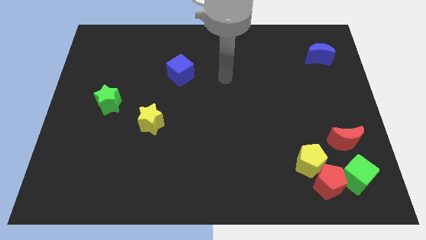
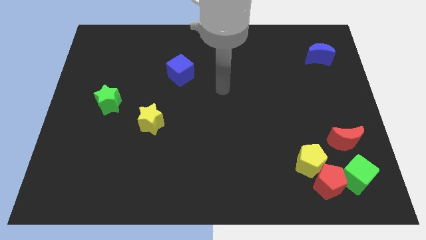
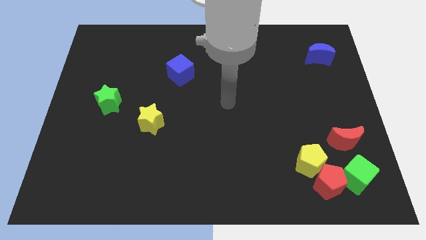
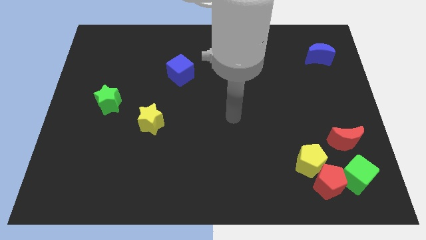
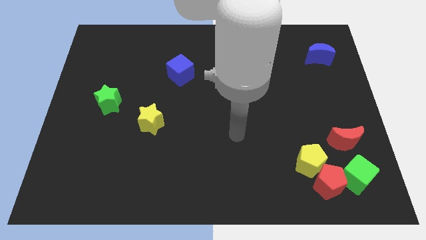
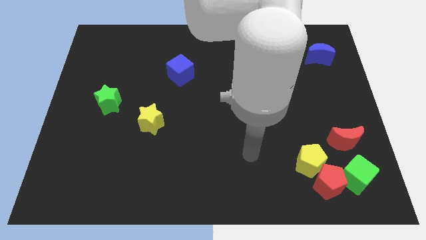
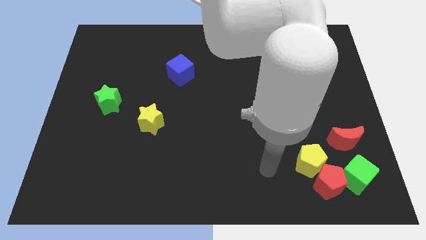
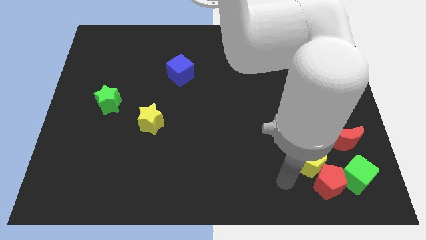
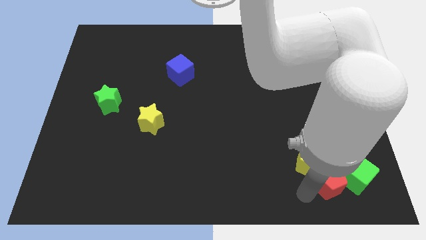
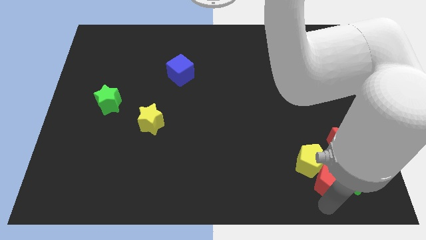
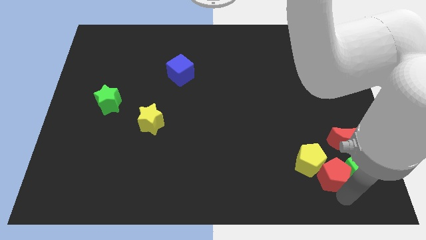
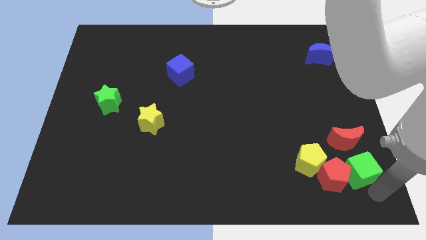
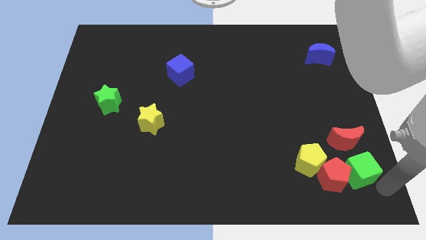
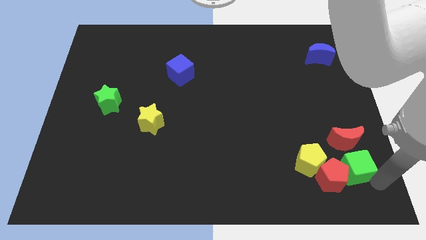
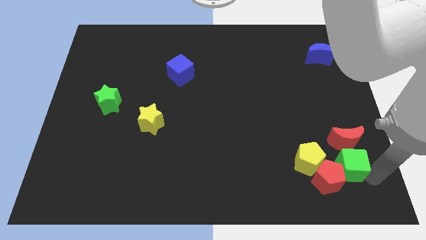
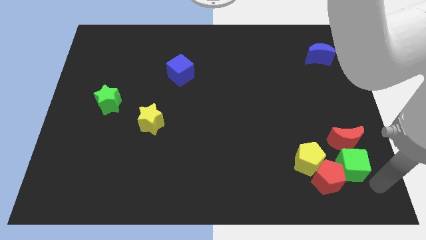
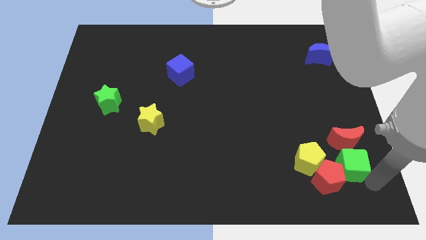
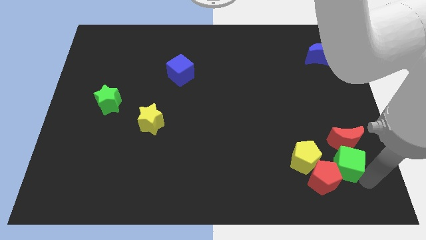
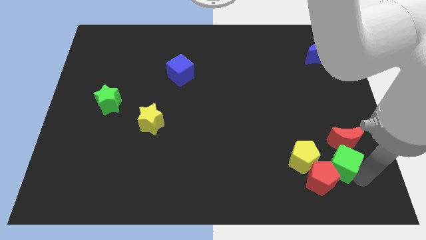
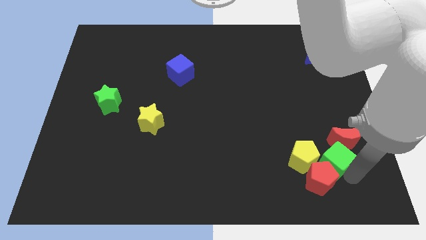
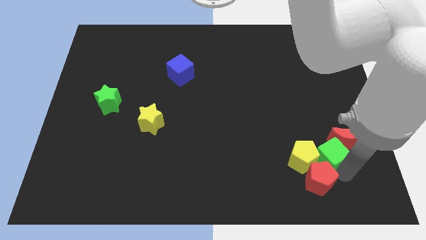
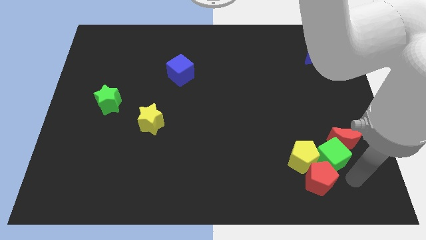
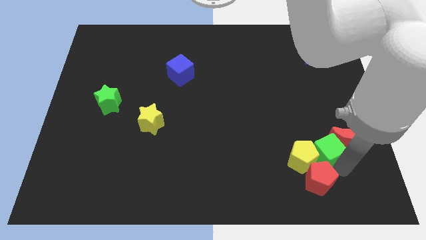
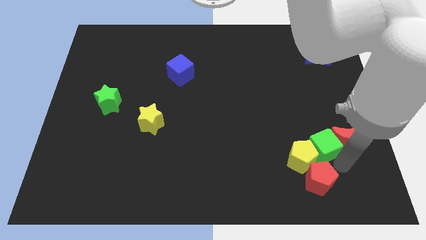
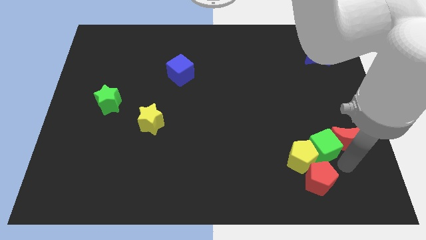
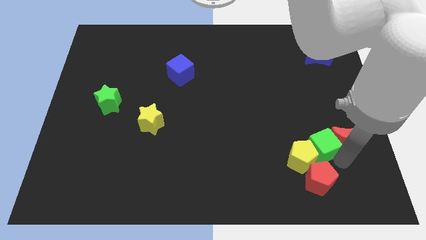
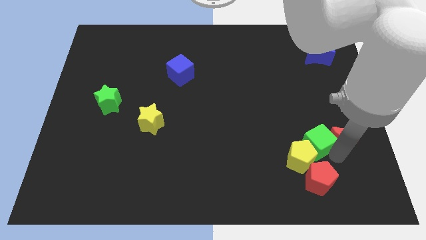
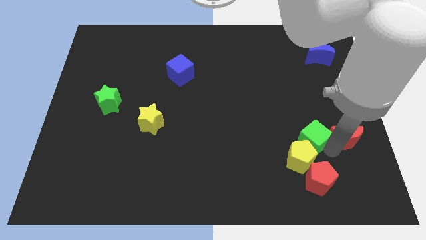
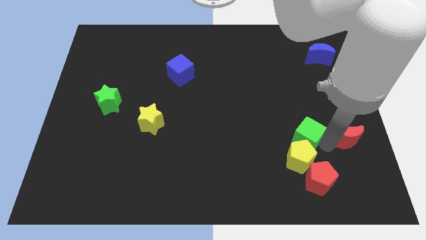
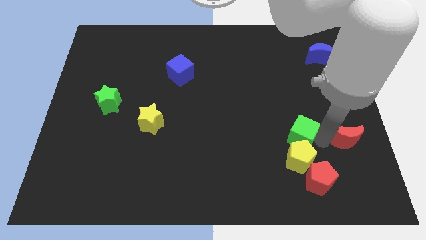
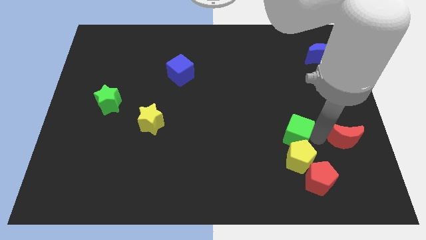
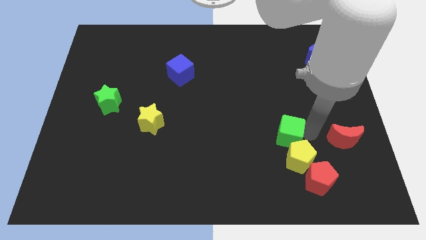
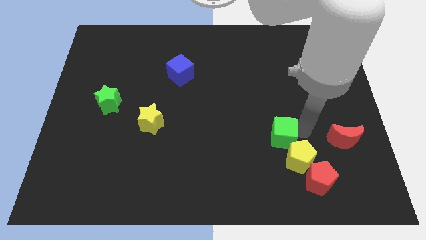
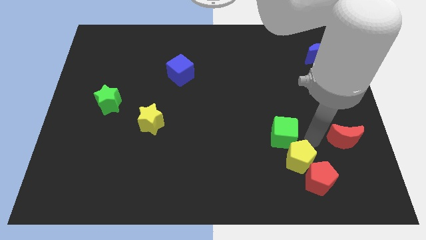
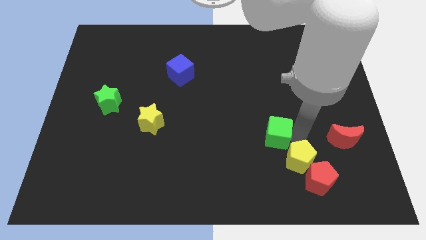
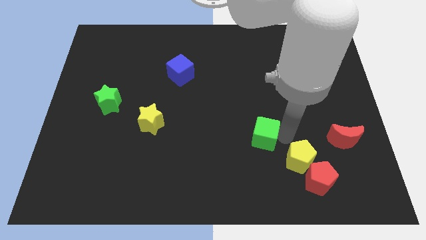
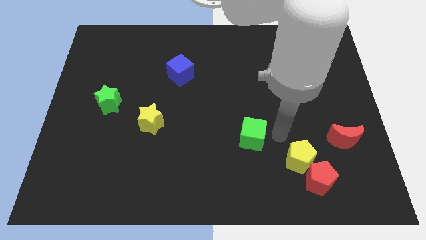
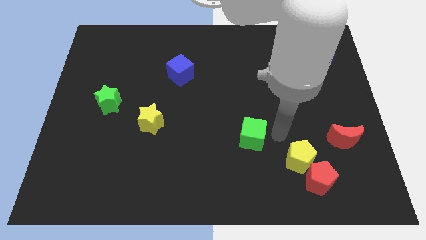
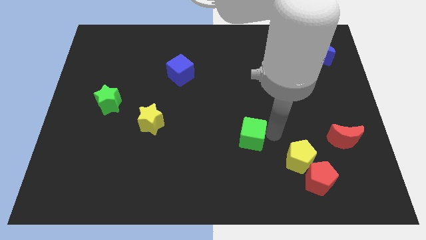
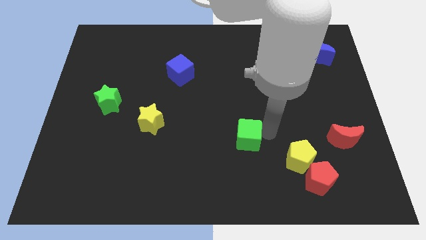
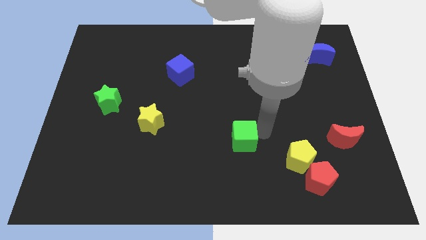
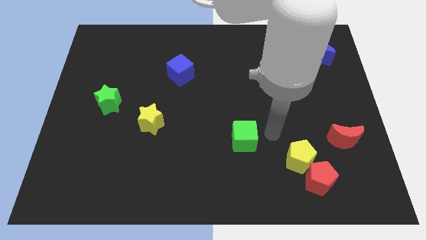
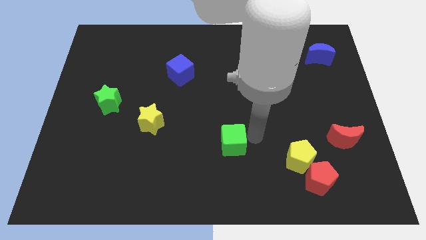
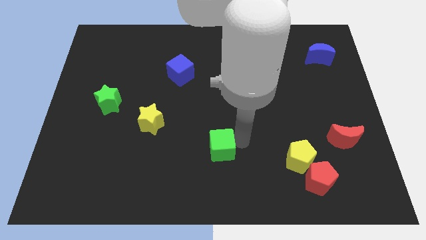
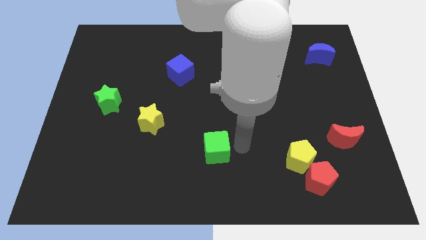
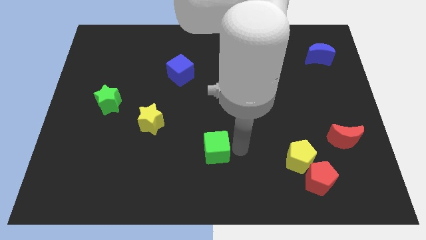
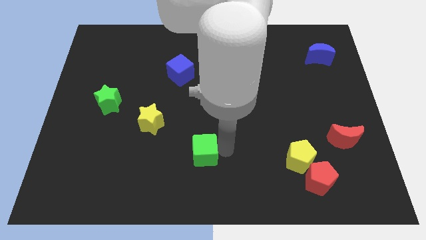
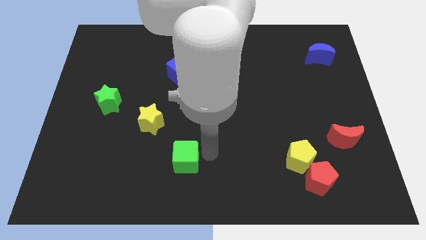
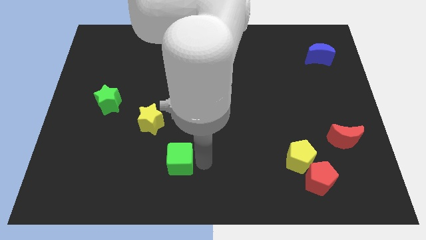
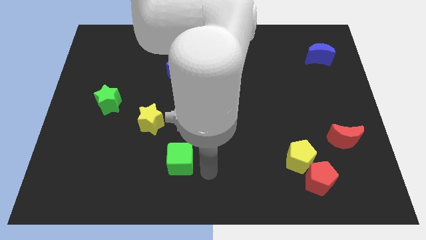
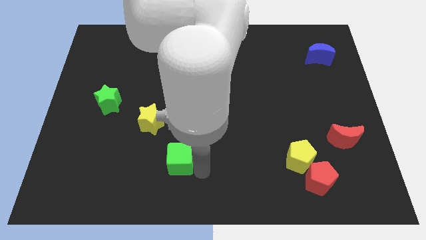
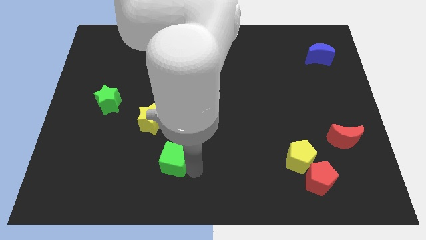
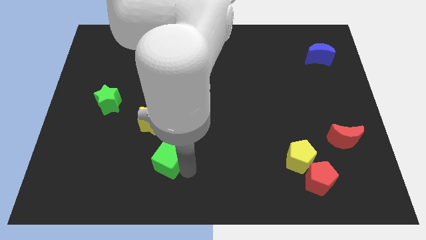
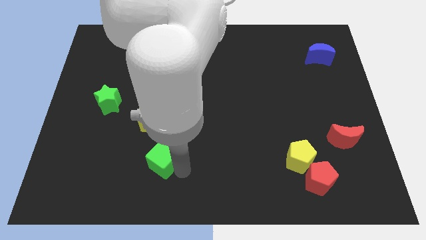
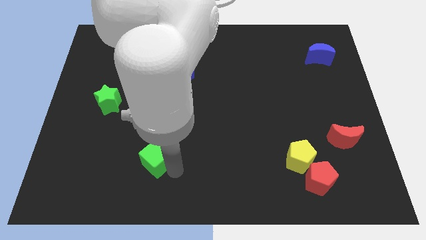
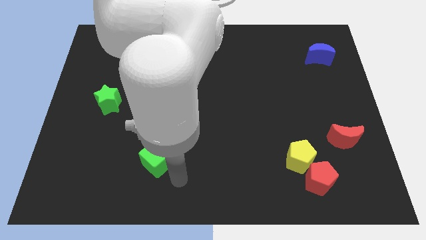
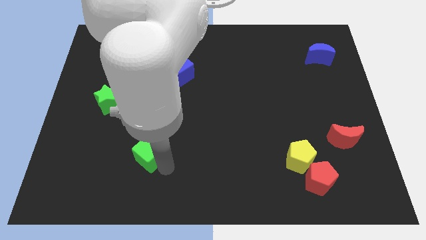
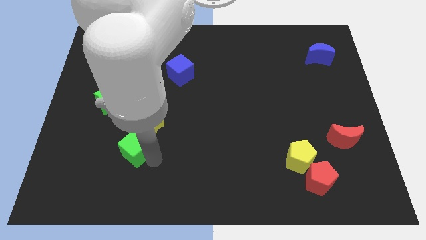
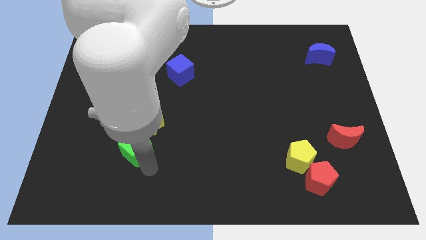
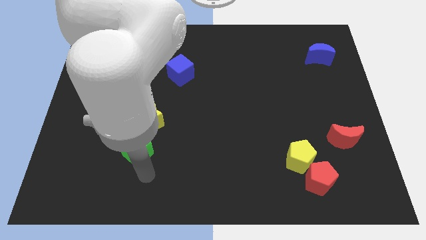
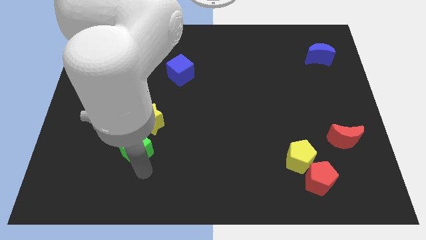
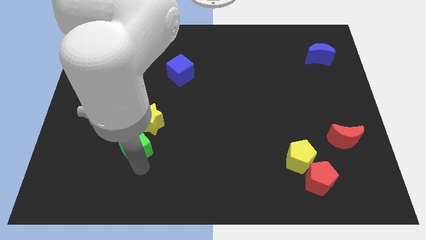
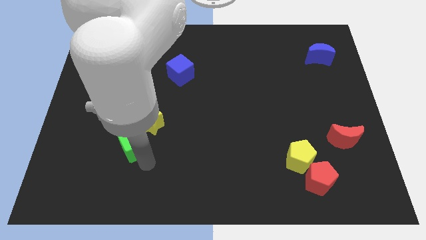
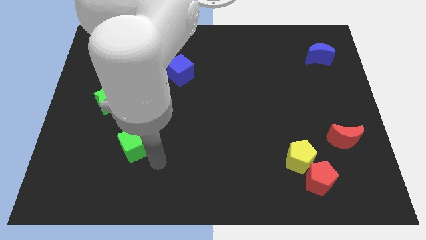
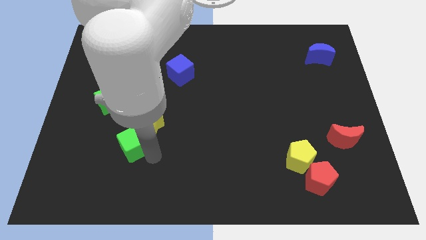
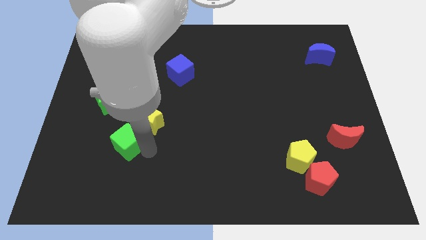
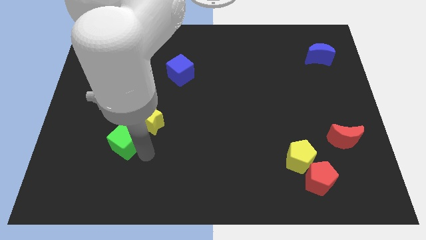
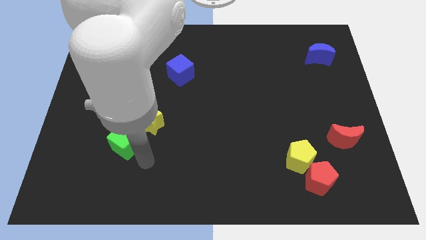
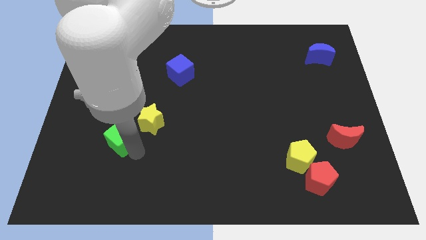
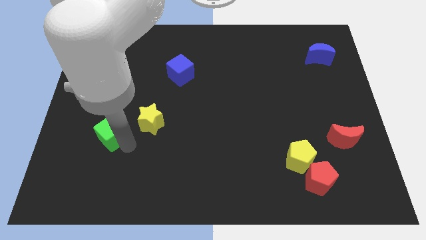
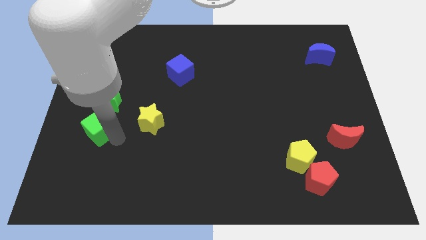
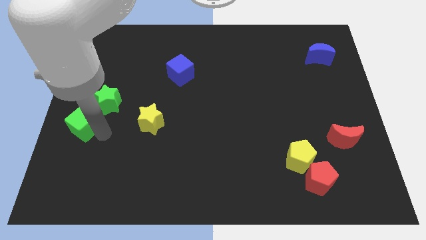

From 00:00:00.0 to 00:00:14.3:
move the green cube to the left side

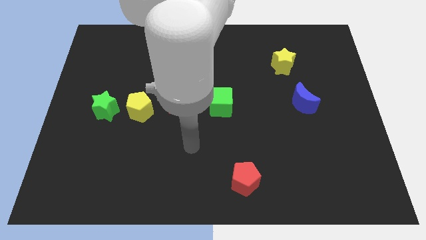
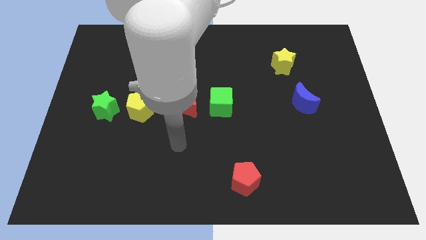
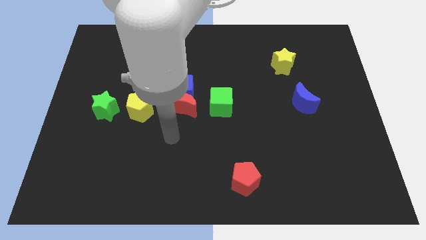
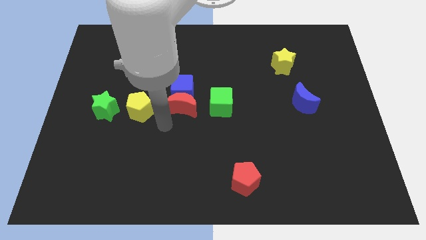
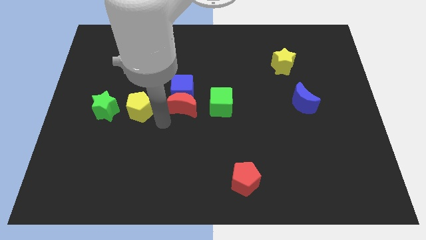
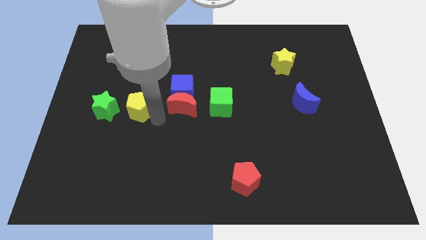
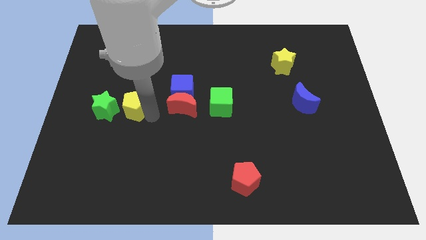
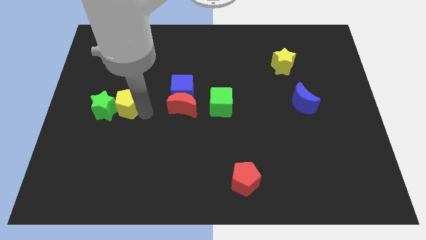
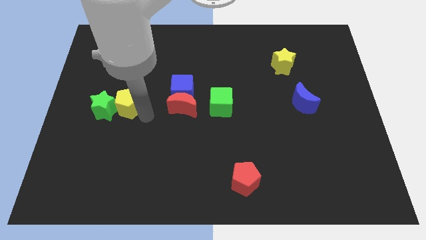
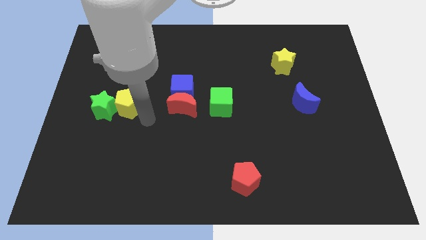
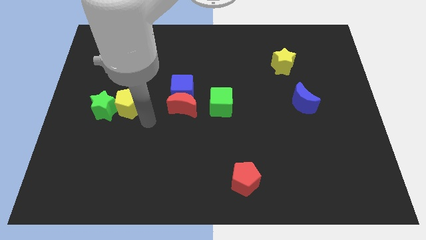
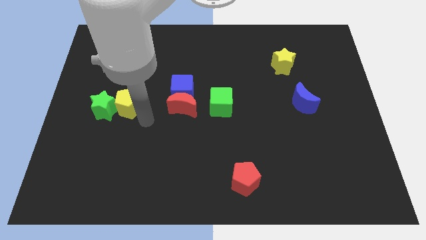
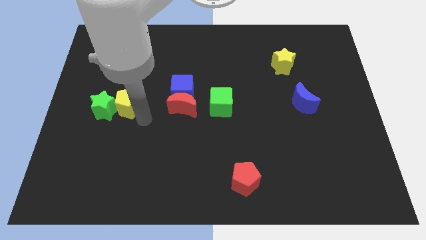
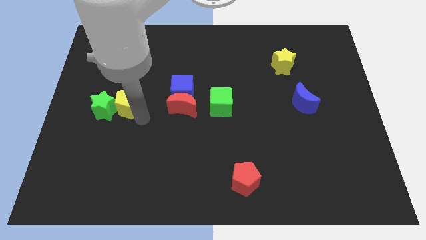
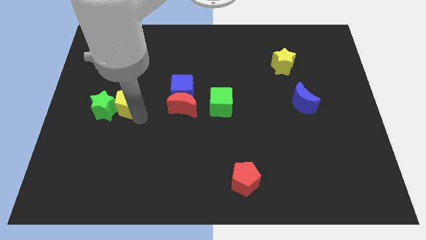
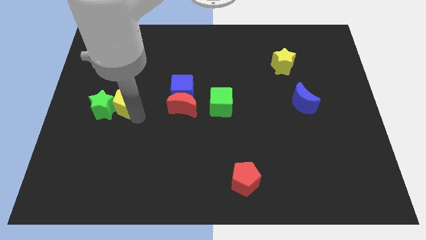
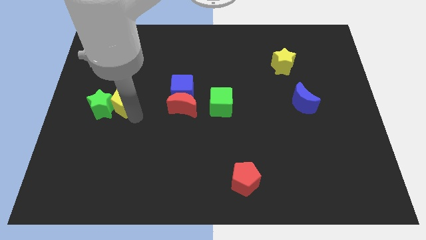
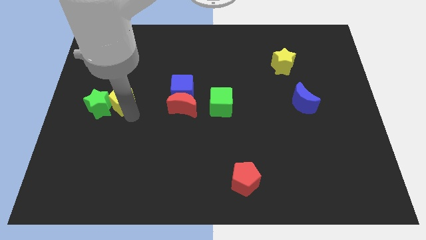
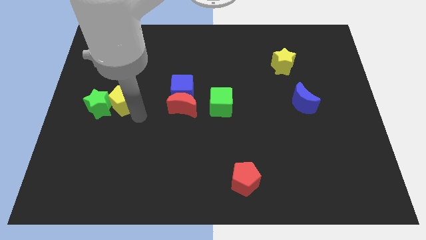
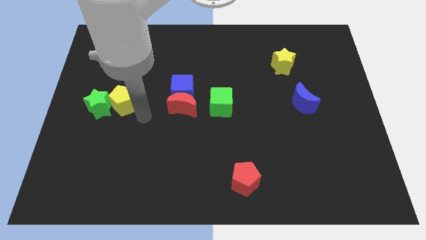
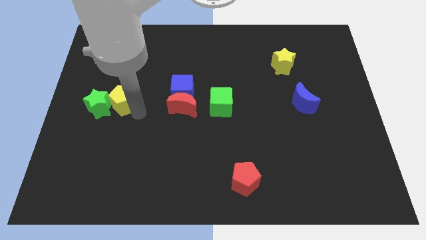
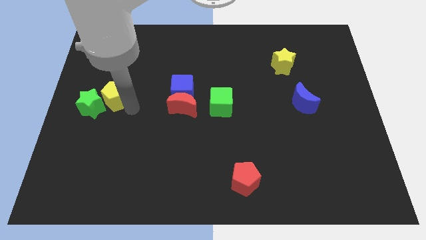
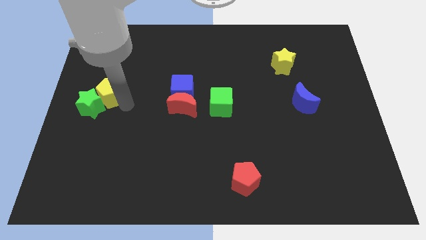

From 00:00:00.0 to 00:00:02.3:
push the yellow pentagon to the left side
